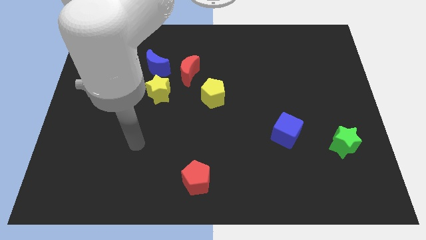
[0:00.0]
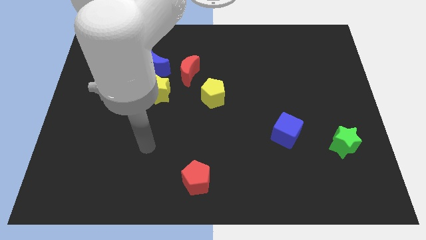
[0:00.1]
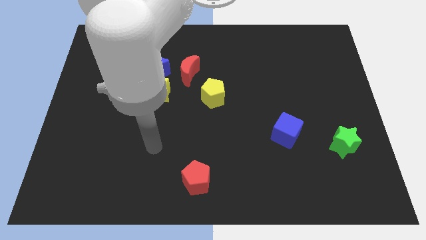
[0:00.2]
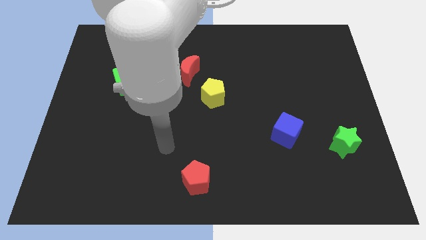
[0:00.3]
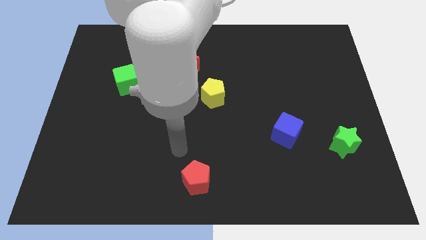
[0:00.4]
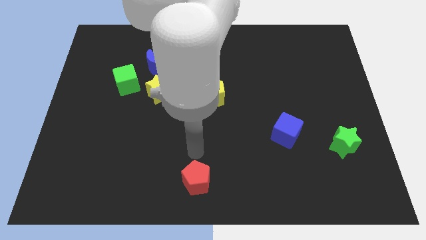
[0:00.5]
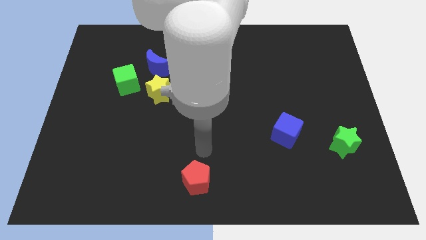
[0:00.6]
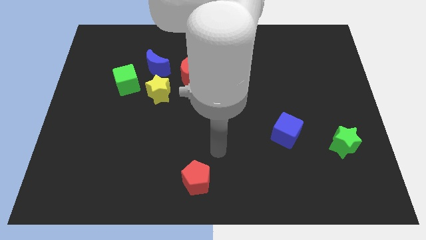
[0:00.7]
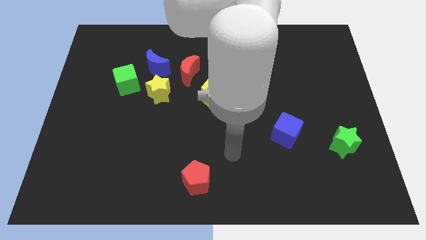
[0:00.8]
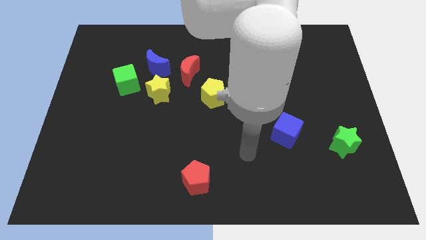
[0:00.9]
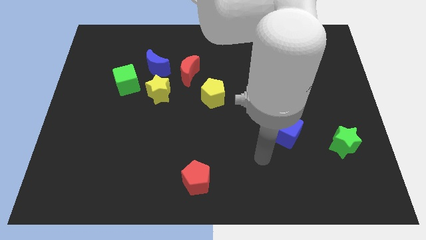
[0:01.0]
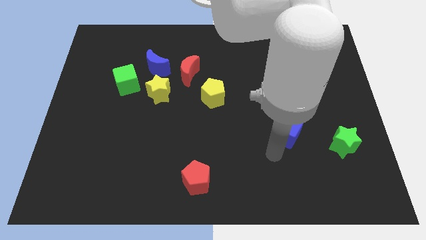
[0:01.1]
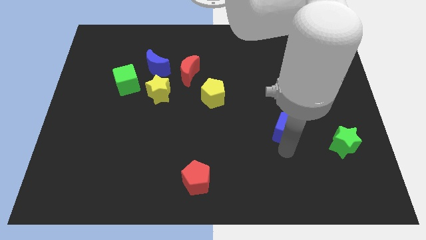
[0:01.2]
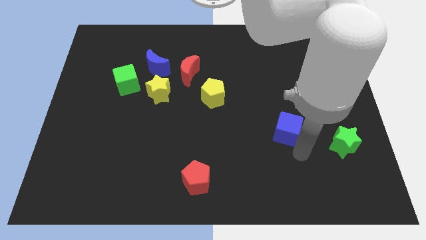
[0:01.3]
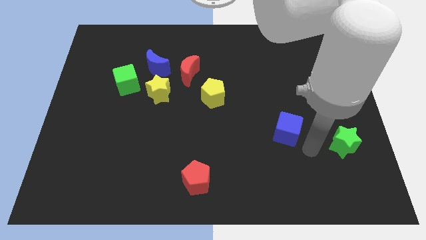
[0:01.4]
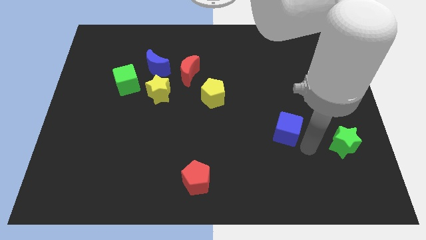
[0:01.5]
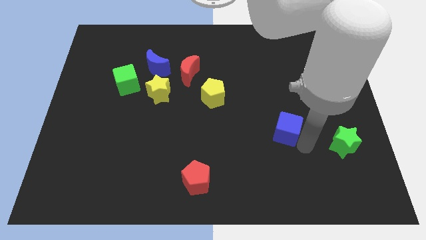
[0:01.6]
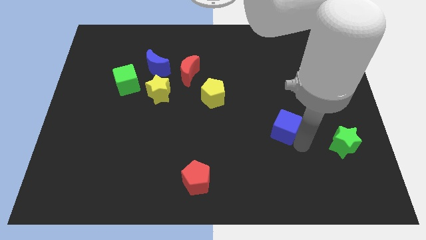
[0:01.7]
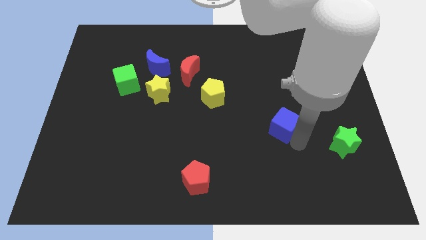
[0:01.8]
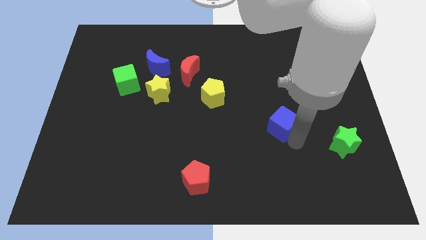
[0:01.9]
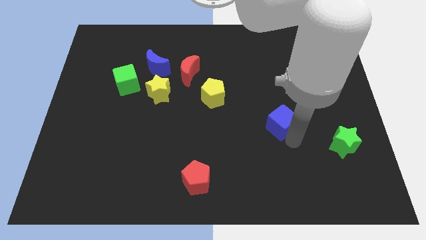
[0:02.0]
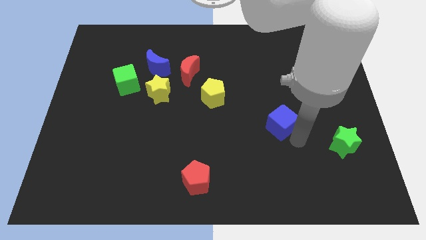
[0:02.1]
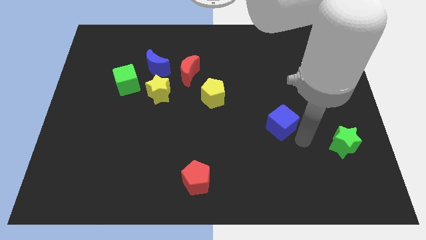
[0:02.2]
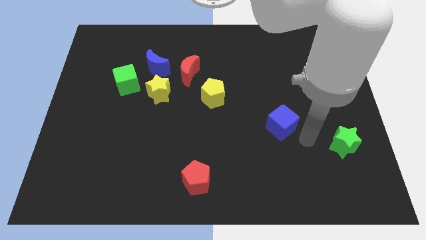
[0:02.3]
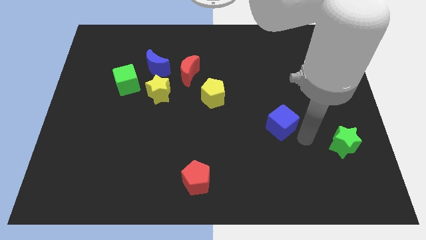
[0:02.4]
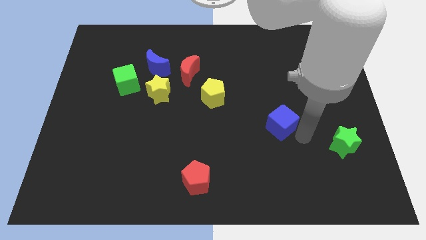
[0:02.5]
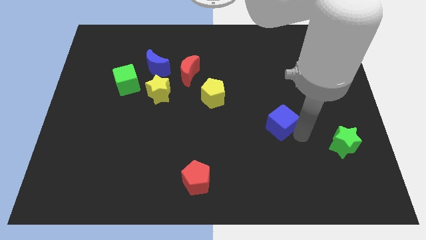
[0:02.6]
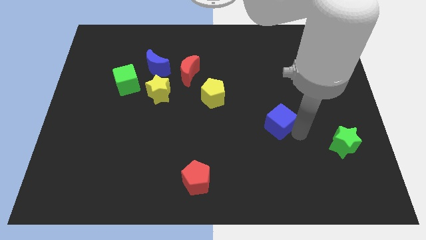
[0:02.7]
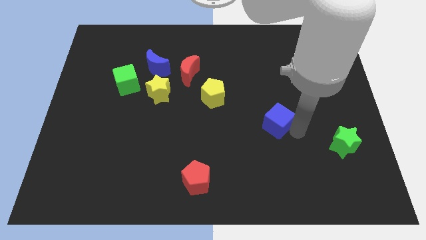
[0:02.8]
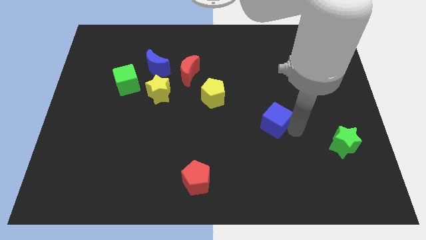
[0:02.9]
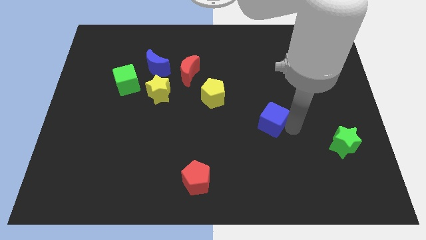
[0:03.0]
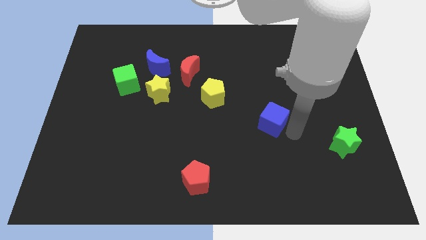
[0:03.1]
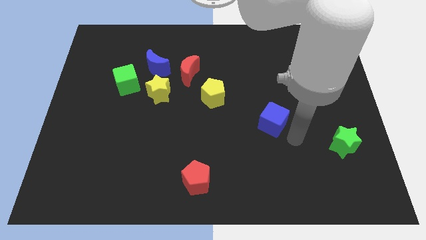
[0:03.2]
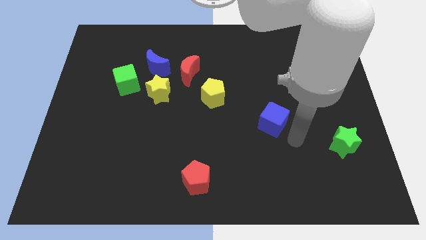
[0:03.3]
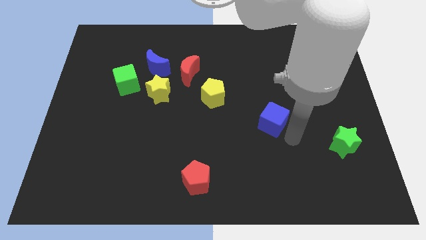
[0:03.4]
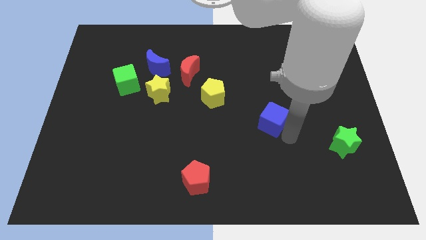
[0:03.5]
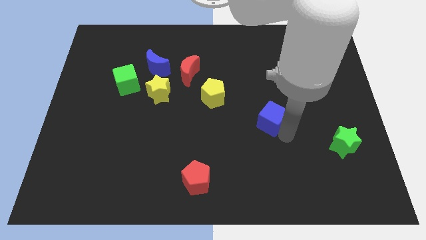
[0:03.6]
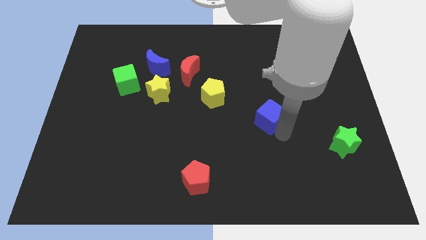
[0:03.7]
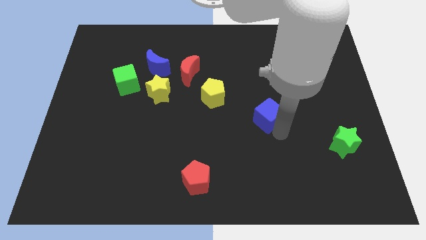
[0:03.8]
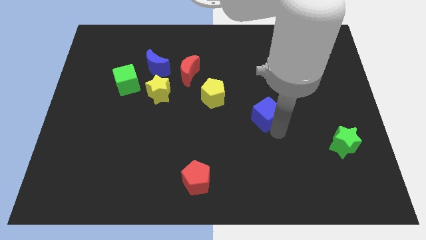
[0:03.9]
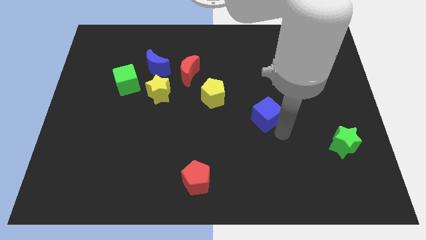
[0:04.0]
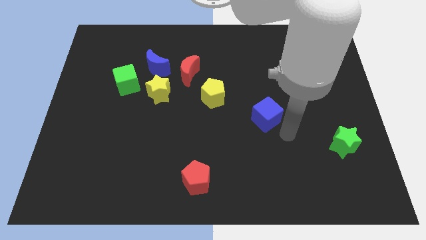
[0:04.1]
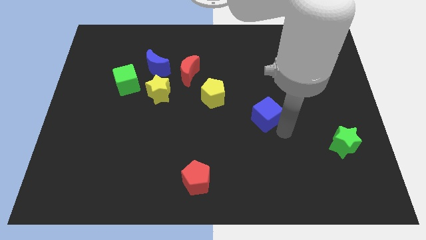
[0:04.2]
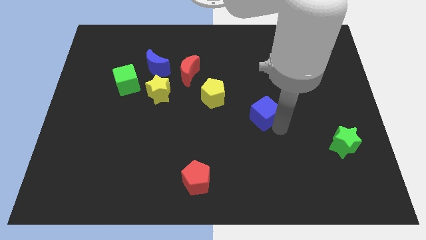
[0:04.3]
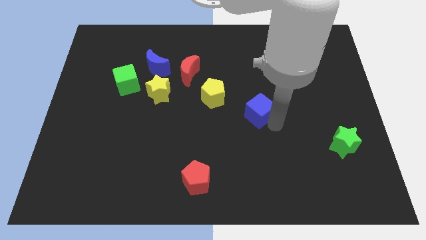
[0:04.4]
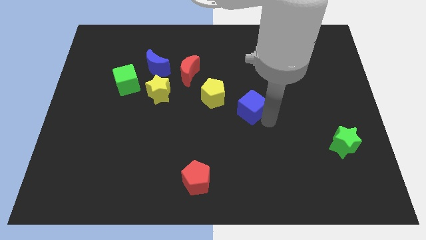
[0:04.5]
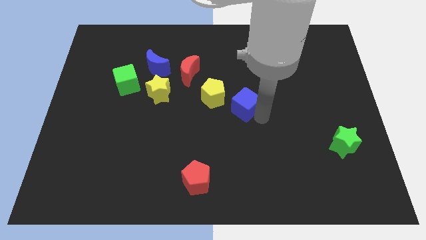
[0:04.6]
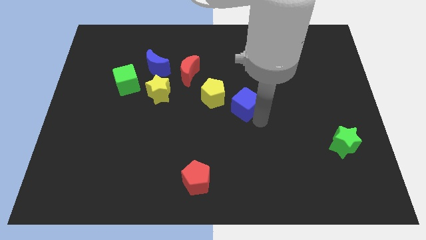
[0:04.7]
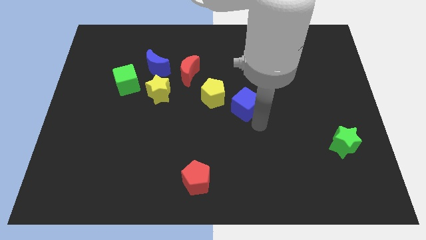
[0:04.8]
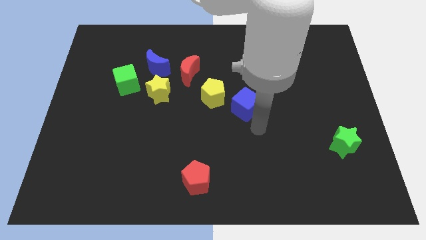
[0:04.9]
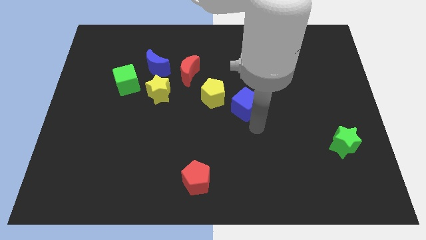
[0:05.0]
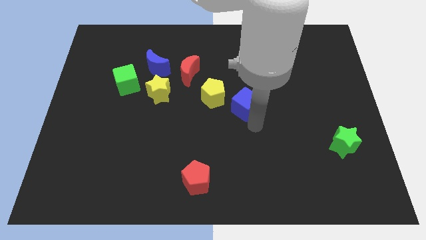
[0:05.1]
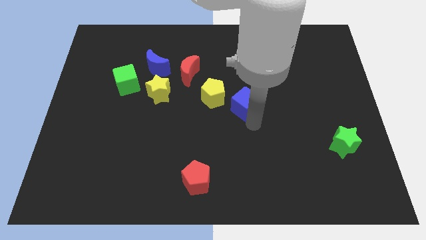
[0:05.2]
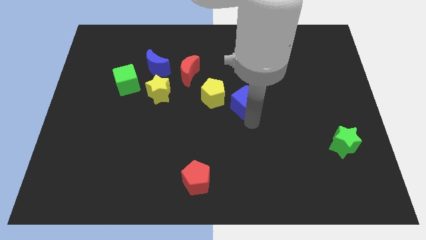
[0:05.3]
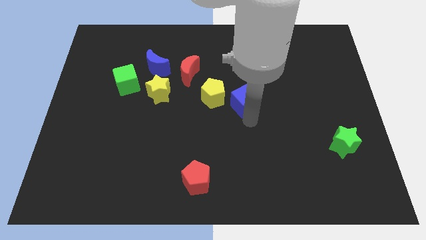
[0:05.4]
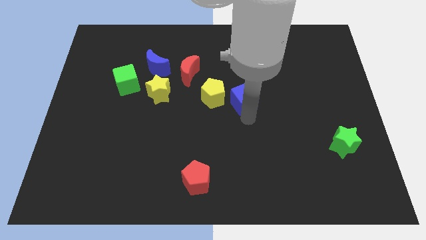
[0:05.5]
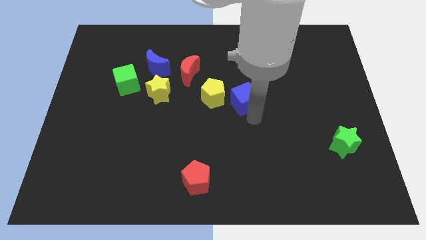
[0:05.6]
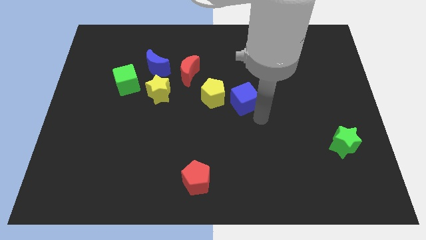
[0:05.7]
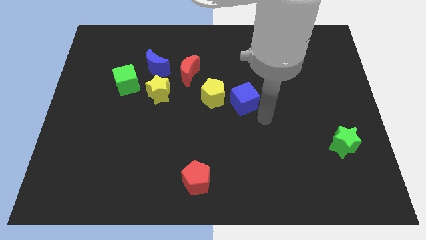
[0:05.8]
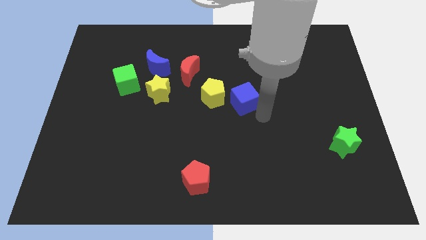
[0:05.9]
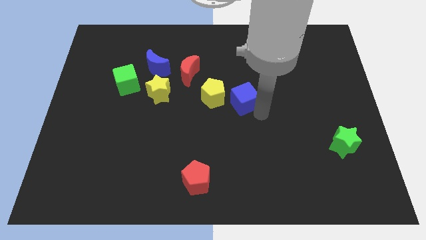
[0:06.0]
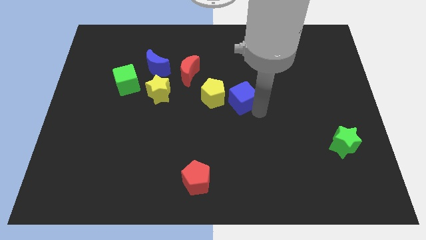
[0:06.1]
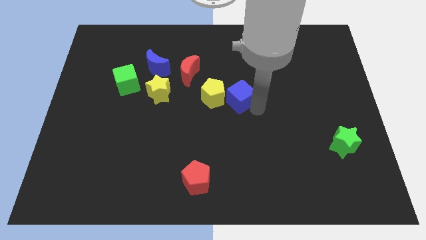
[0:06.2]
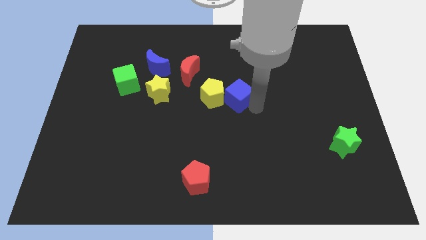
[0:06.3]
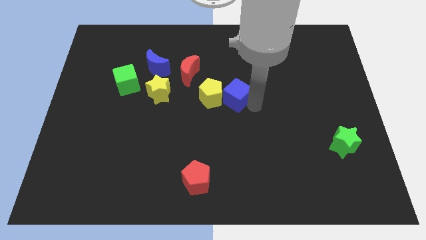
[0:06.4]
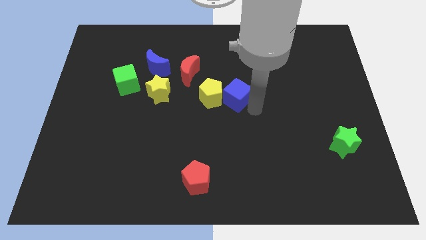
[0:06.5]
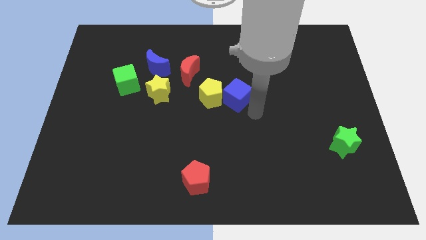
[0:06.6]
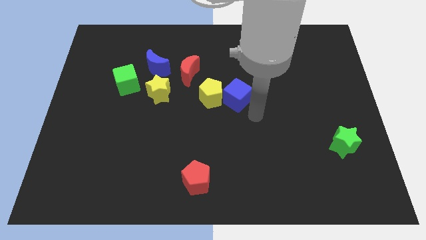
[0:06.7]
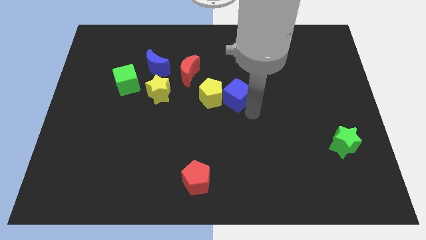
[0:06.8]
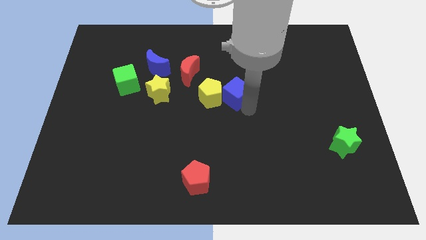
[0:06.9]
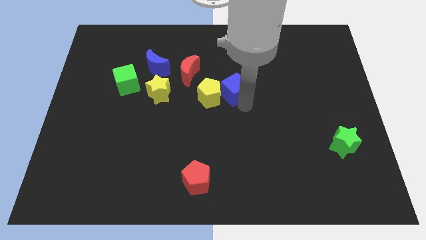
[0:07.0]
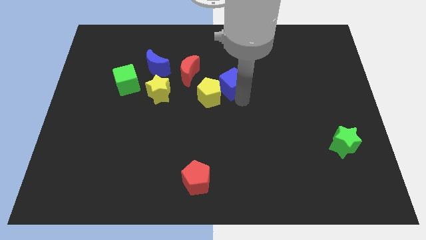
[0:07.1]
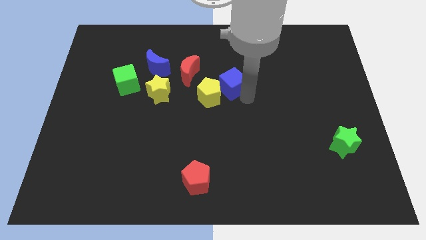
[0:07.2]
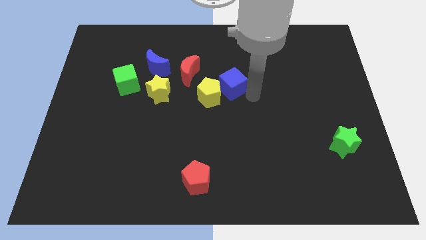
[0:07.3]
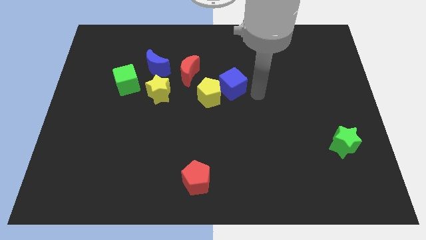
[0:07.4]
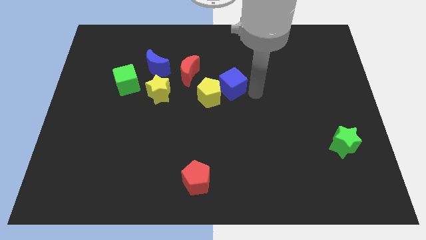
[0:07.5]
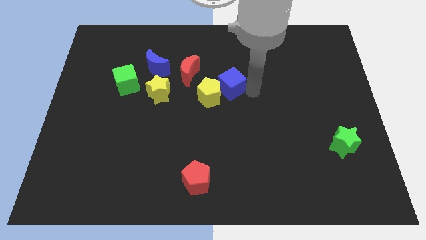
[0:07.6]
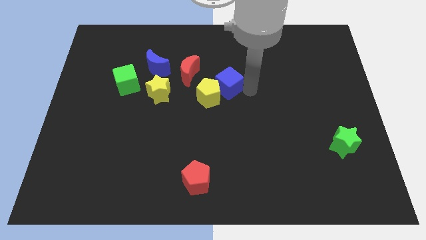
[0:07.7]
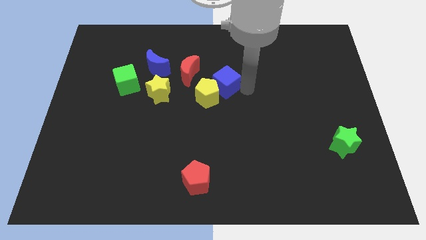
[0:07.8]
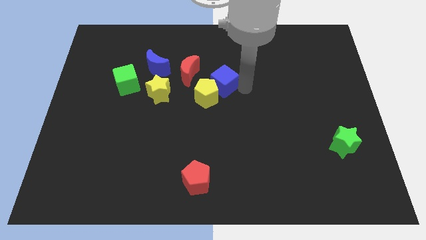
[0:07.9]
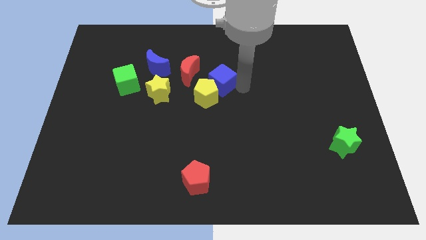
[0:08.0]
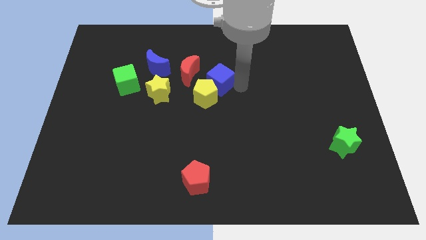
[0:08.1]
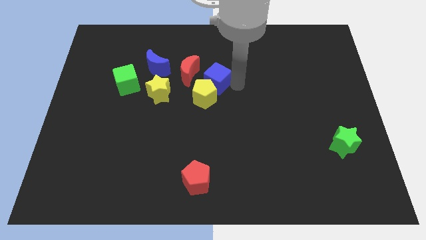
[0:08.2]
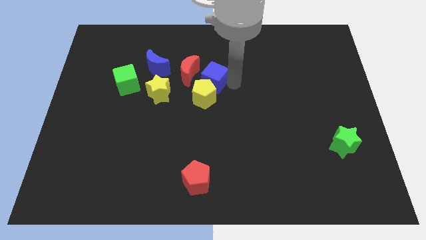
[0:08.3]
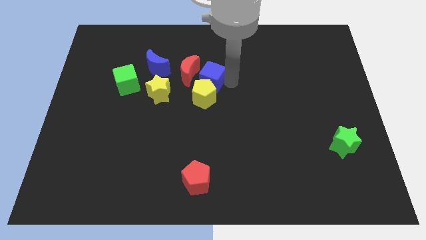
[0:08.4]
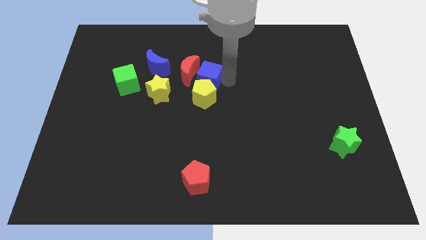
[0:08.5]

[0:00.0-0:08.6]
slide the blue cube to the red moon
